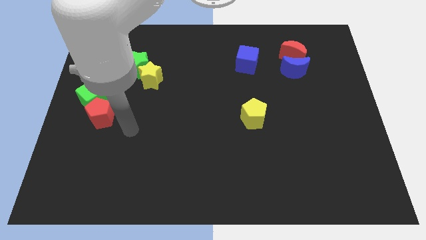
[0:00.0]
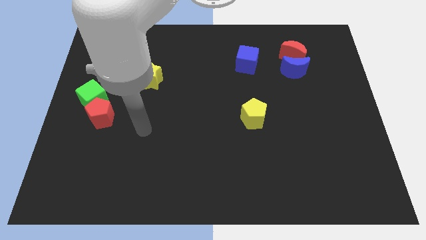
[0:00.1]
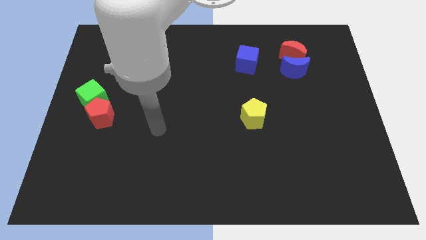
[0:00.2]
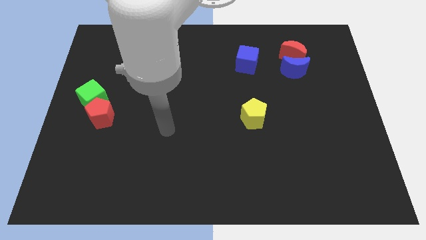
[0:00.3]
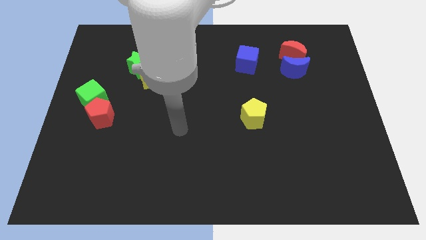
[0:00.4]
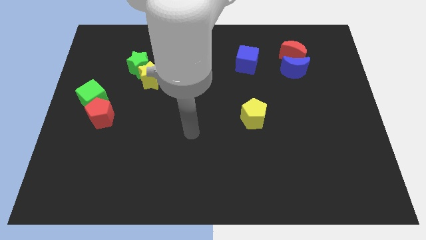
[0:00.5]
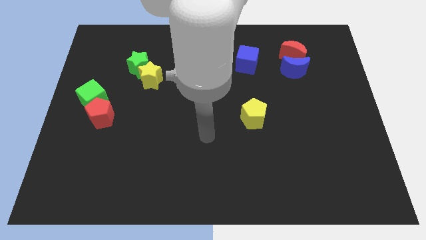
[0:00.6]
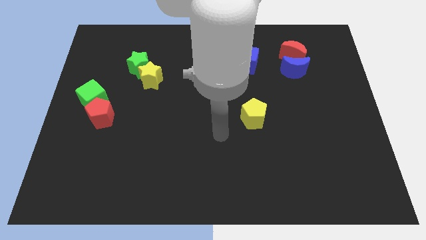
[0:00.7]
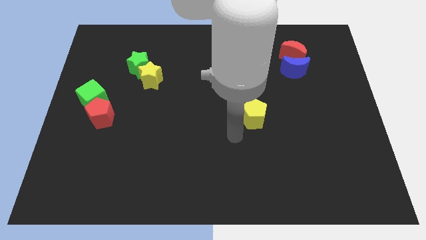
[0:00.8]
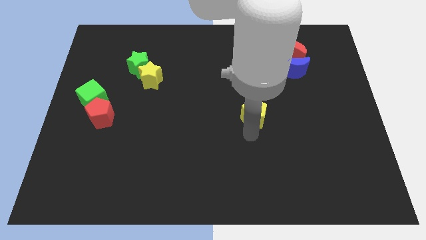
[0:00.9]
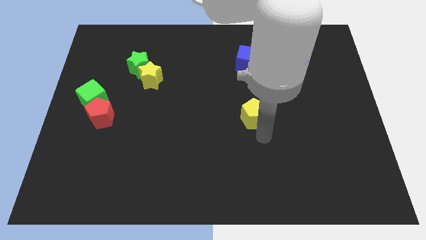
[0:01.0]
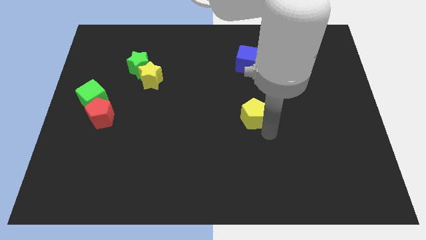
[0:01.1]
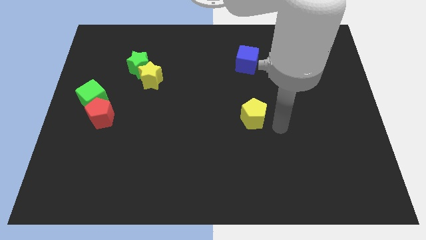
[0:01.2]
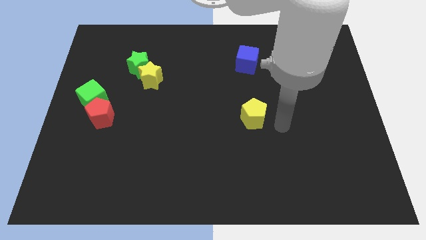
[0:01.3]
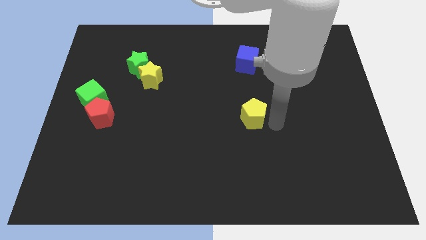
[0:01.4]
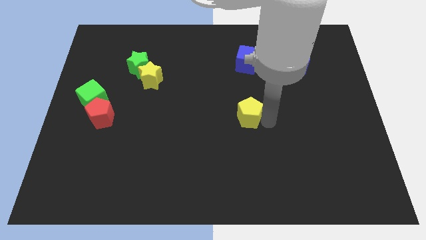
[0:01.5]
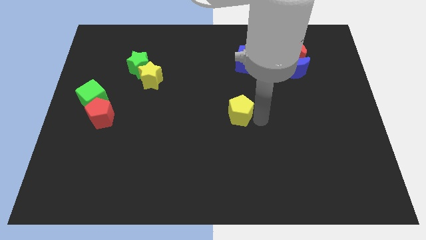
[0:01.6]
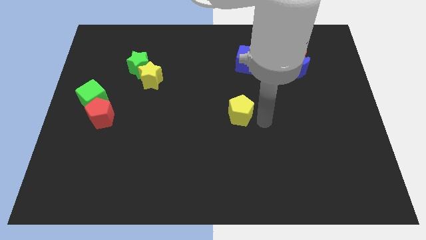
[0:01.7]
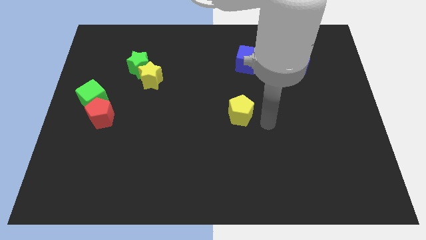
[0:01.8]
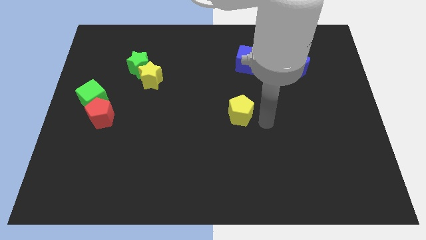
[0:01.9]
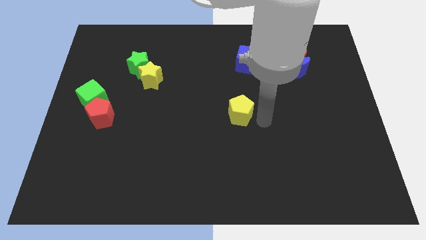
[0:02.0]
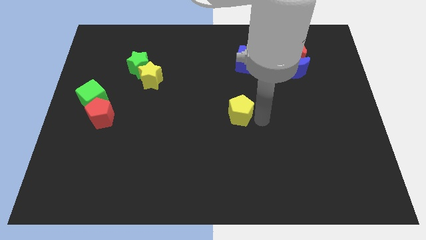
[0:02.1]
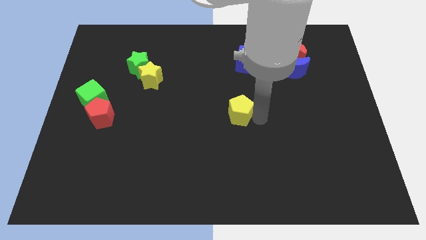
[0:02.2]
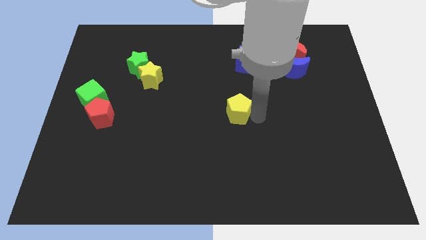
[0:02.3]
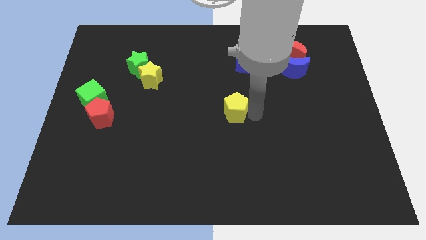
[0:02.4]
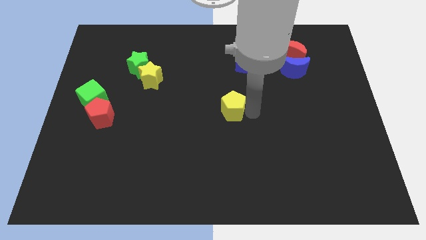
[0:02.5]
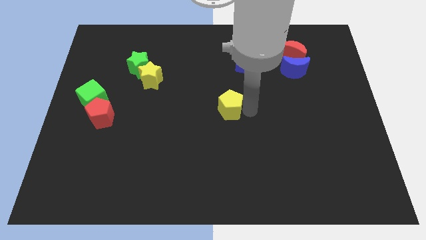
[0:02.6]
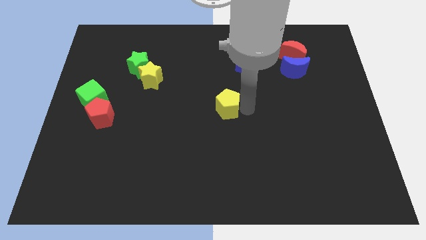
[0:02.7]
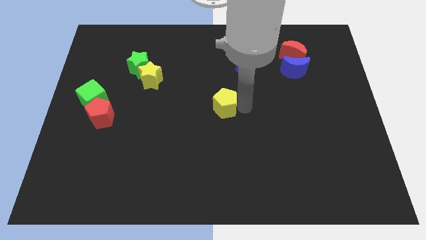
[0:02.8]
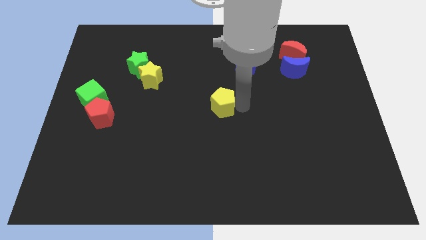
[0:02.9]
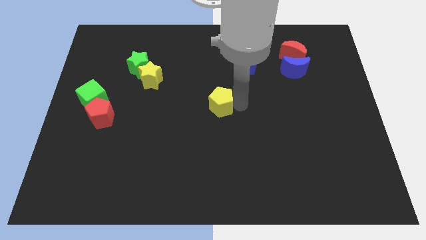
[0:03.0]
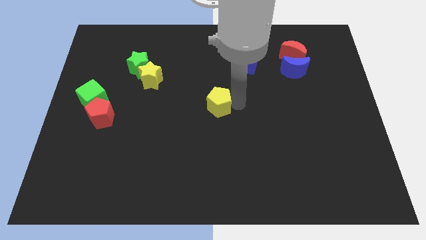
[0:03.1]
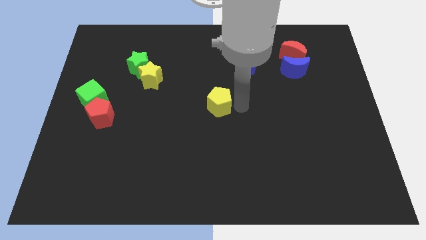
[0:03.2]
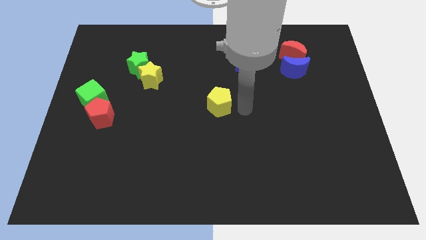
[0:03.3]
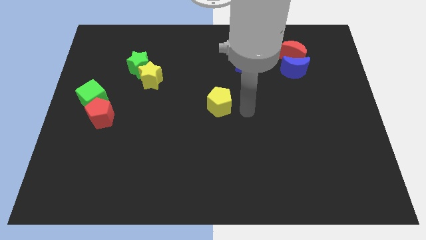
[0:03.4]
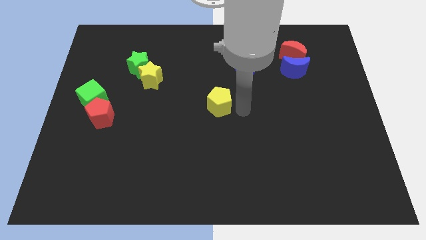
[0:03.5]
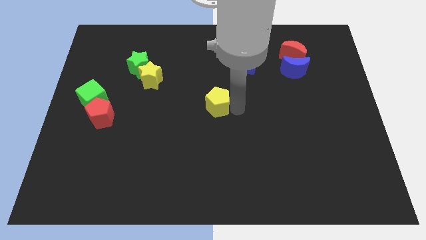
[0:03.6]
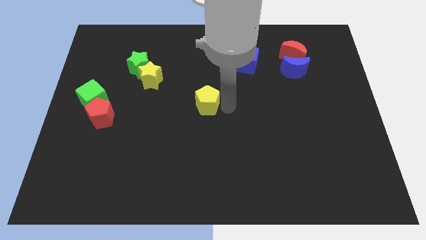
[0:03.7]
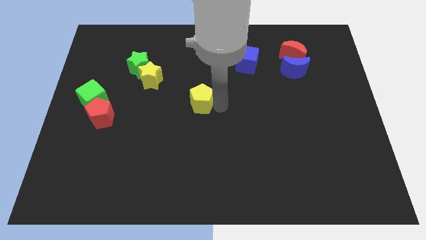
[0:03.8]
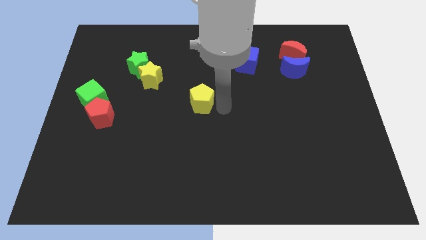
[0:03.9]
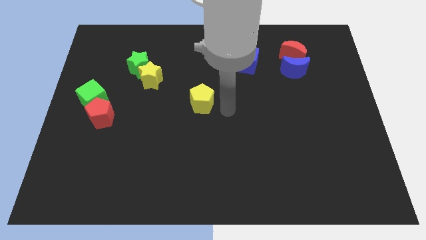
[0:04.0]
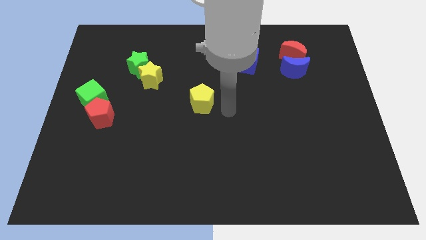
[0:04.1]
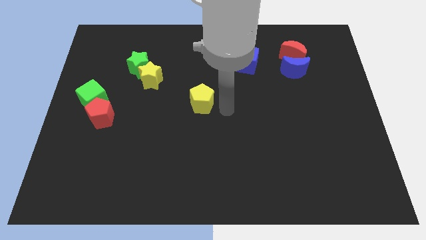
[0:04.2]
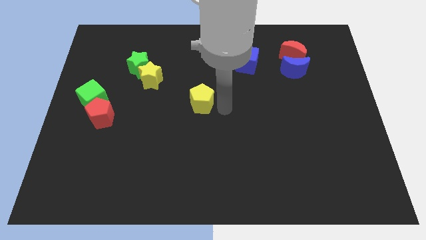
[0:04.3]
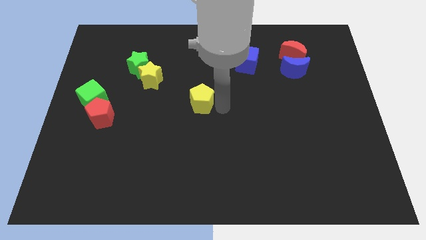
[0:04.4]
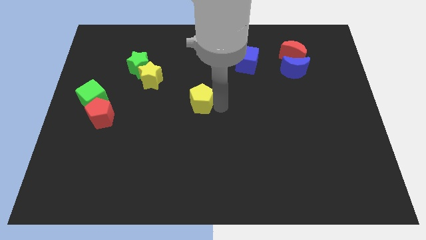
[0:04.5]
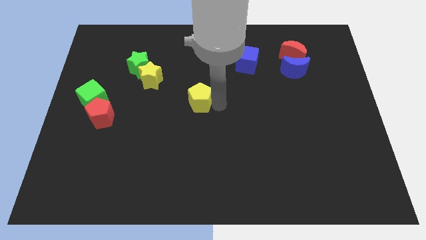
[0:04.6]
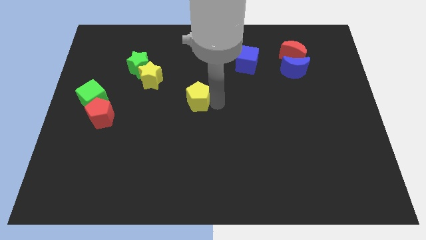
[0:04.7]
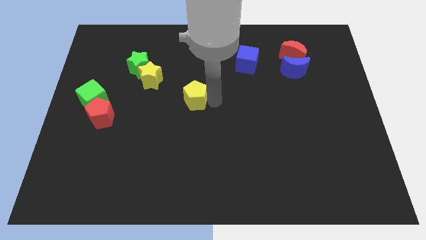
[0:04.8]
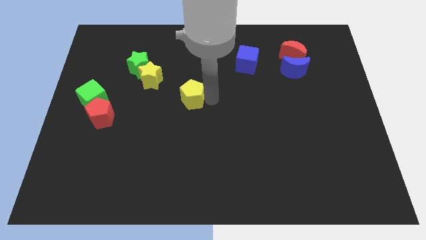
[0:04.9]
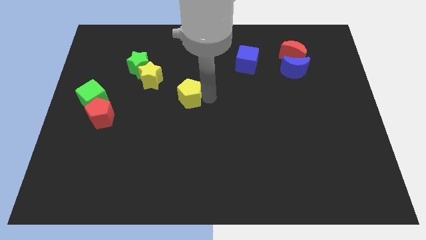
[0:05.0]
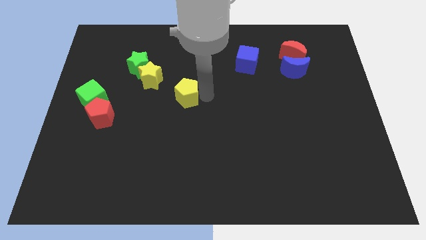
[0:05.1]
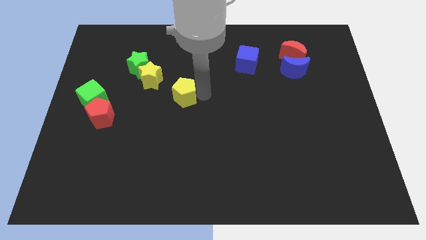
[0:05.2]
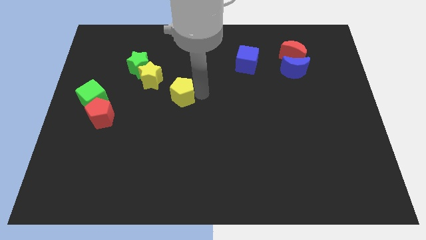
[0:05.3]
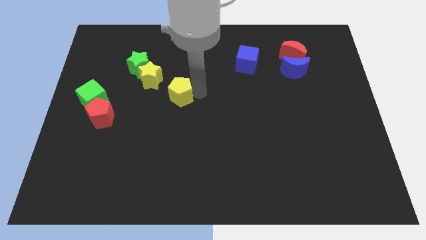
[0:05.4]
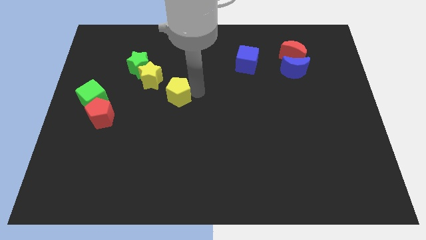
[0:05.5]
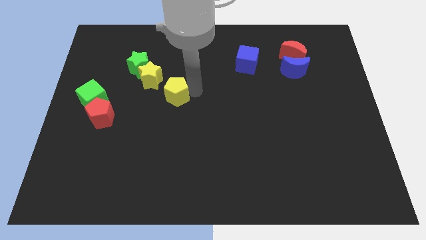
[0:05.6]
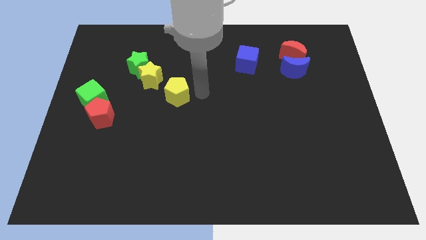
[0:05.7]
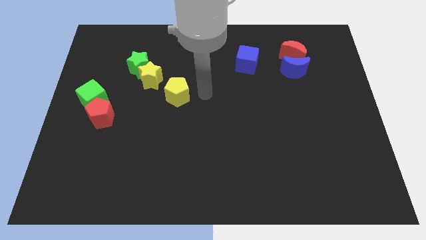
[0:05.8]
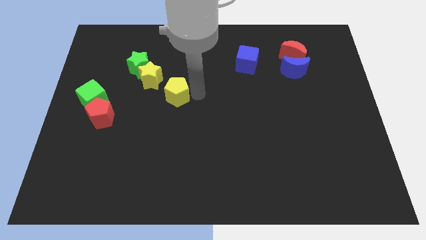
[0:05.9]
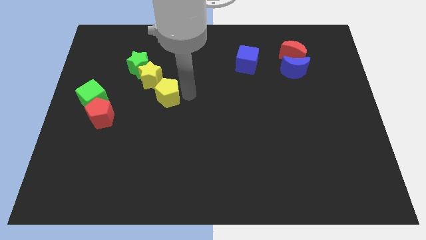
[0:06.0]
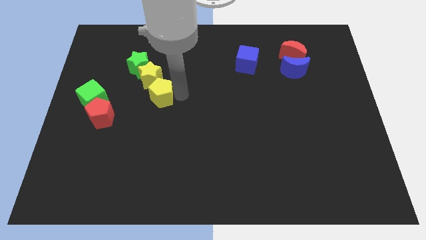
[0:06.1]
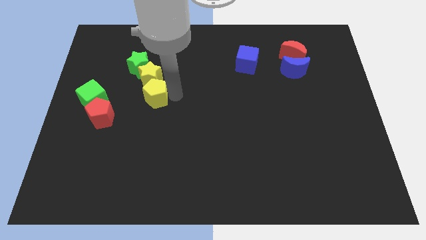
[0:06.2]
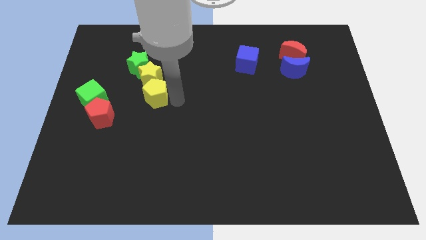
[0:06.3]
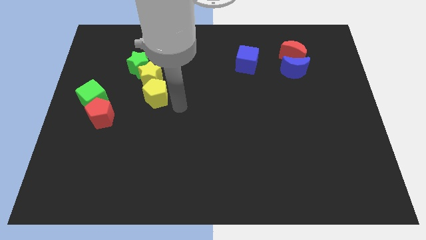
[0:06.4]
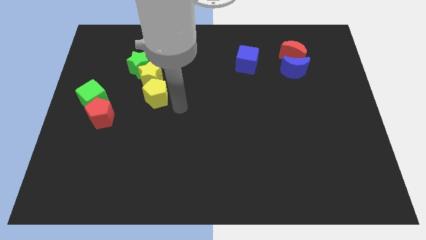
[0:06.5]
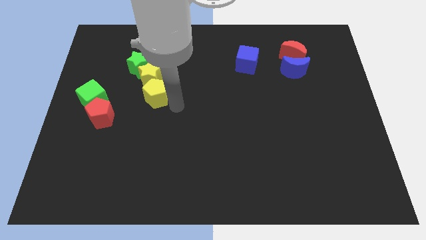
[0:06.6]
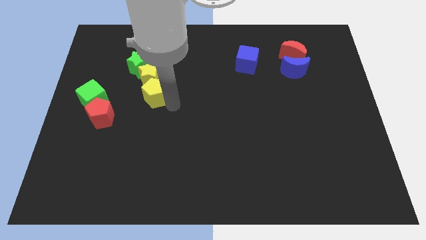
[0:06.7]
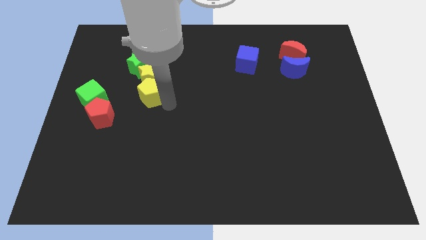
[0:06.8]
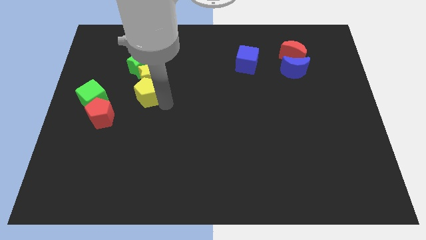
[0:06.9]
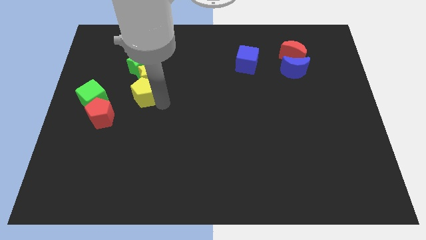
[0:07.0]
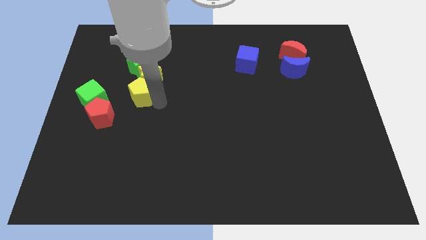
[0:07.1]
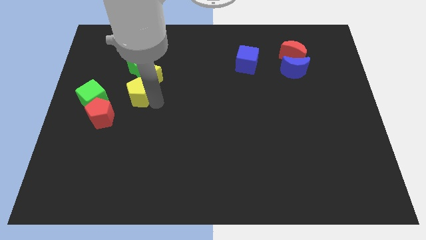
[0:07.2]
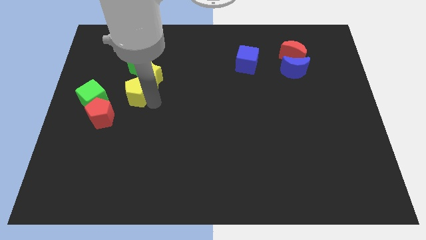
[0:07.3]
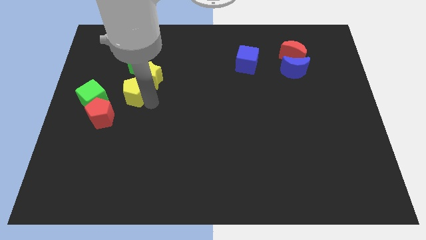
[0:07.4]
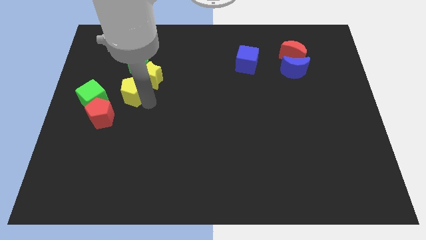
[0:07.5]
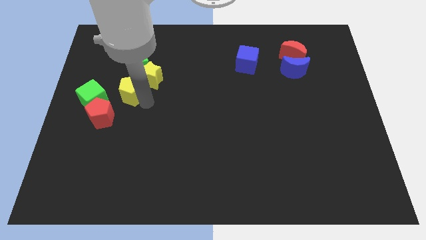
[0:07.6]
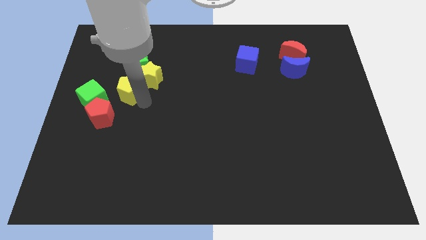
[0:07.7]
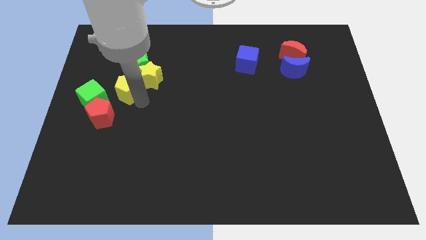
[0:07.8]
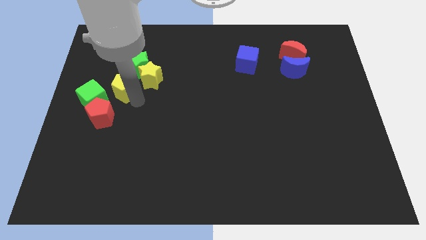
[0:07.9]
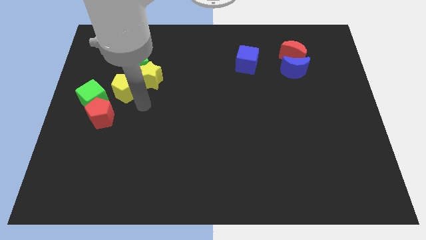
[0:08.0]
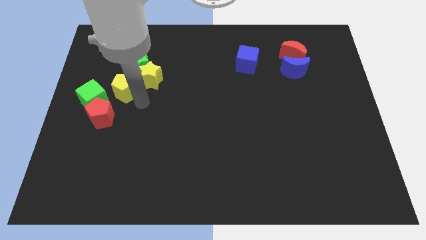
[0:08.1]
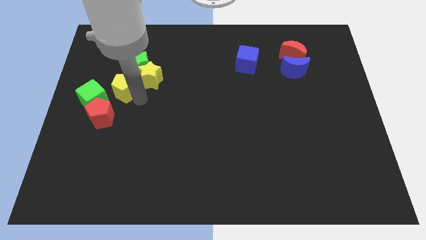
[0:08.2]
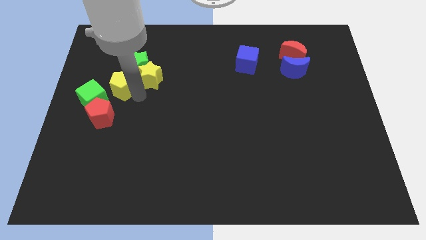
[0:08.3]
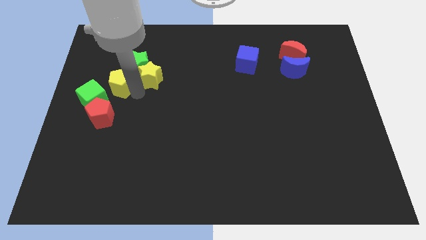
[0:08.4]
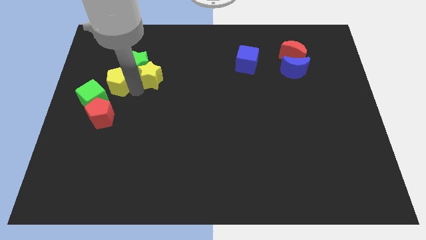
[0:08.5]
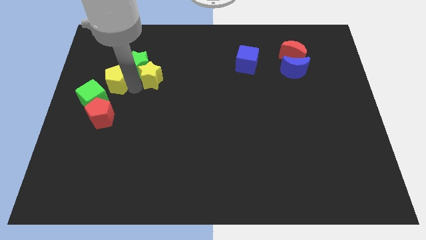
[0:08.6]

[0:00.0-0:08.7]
move the yellow pentagon to the top side of the green cube
